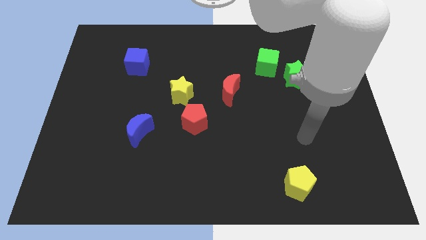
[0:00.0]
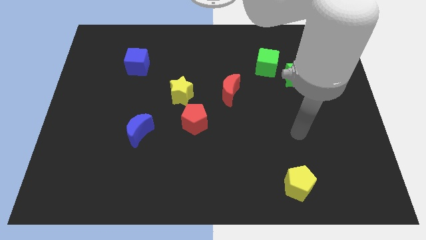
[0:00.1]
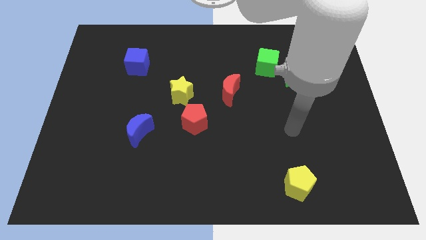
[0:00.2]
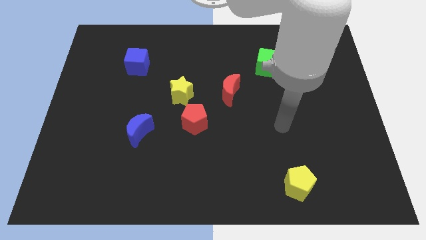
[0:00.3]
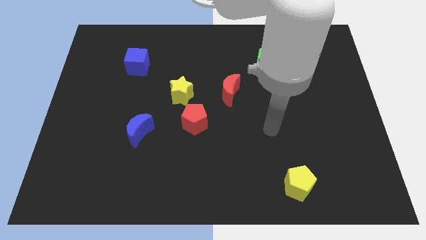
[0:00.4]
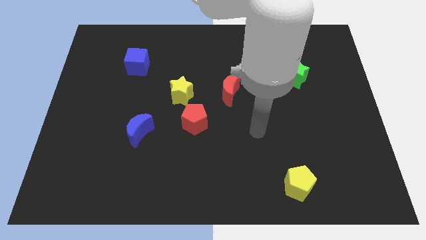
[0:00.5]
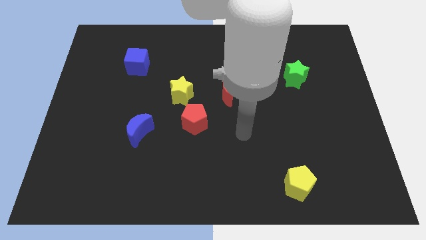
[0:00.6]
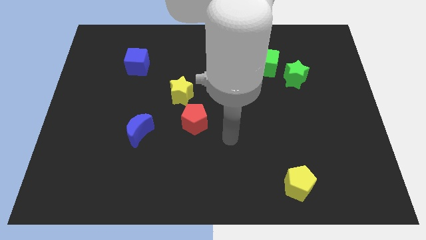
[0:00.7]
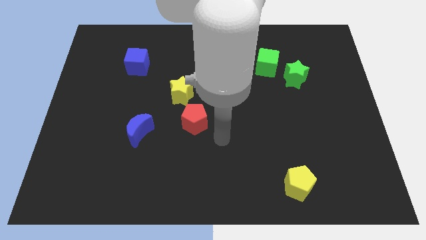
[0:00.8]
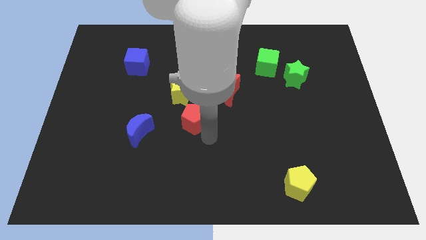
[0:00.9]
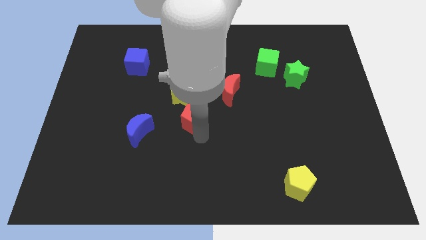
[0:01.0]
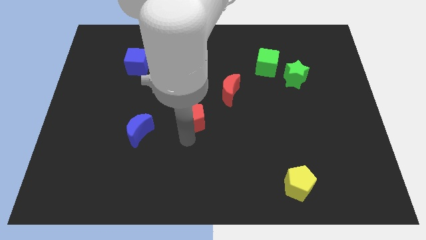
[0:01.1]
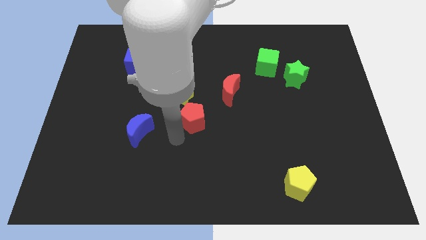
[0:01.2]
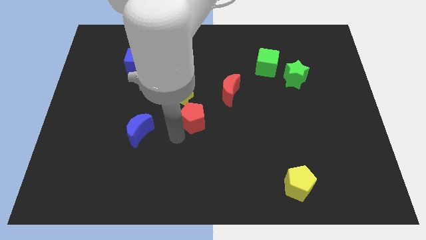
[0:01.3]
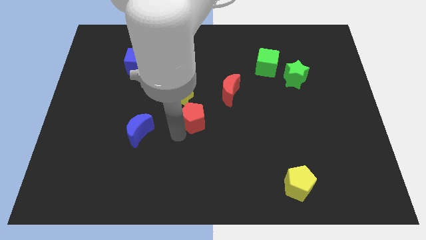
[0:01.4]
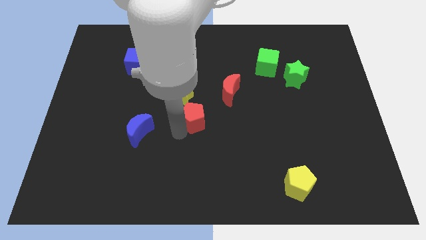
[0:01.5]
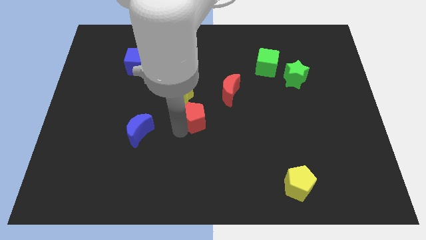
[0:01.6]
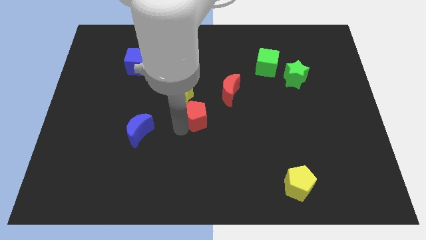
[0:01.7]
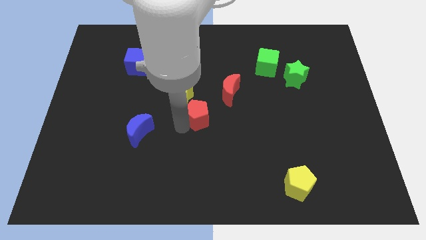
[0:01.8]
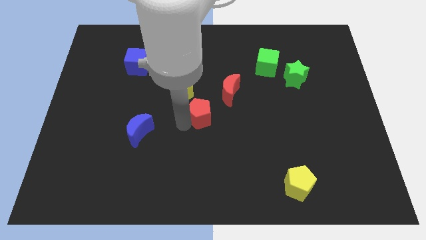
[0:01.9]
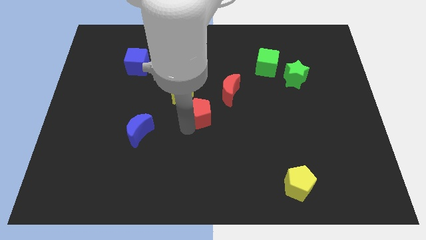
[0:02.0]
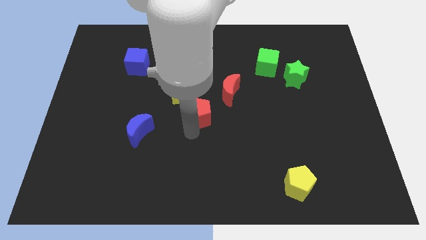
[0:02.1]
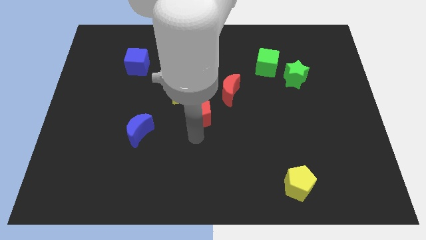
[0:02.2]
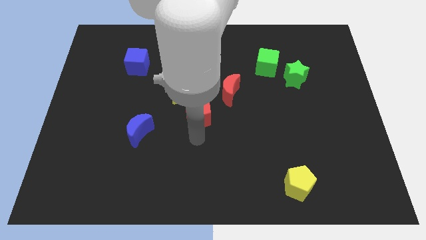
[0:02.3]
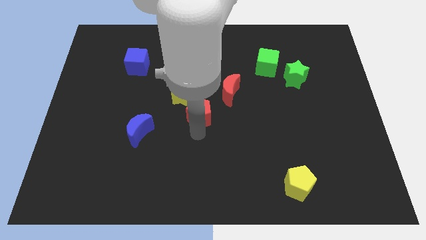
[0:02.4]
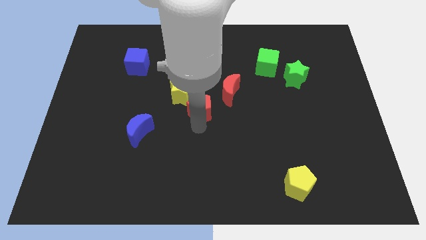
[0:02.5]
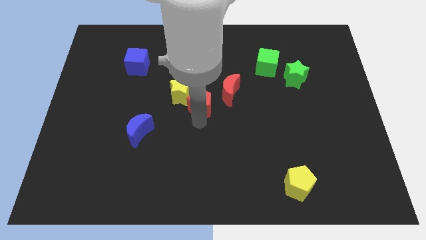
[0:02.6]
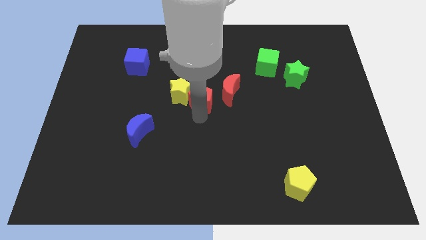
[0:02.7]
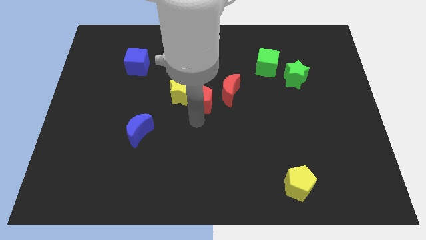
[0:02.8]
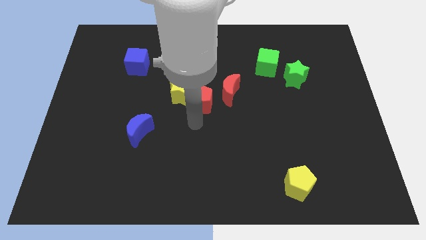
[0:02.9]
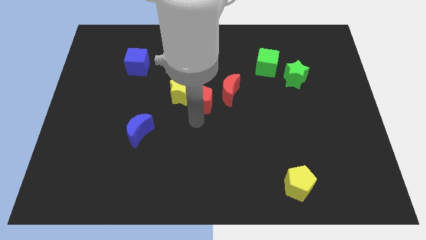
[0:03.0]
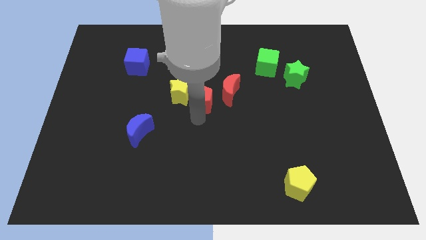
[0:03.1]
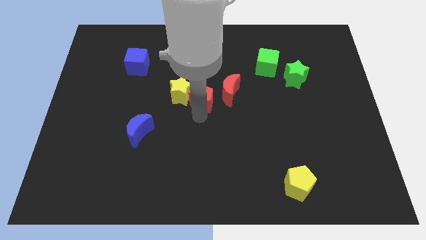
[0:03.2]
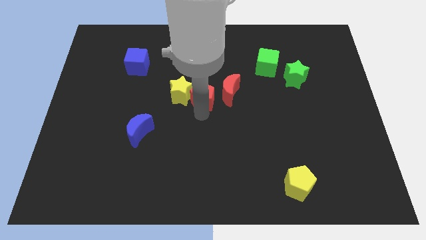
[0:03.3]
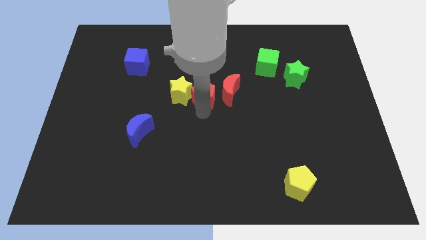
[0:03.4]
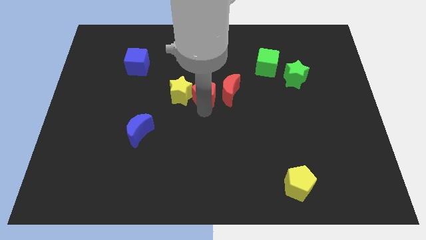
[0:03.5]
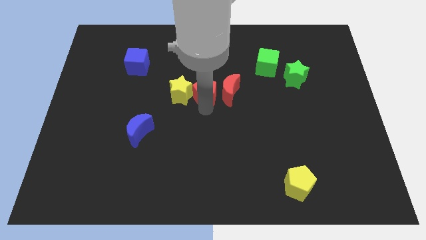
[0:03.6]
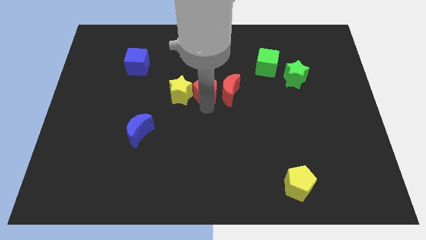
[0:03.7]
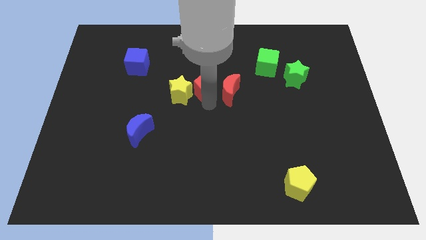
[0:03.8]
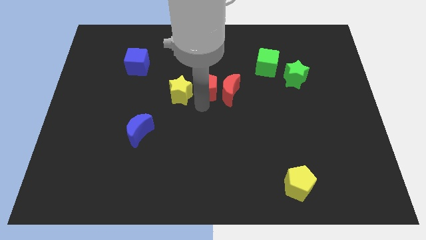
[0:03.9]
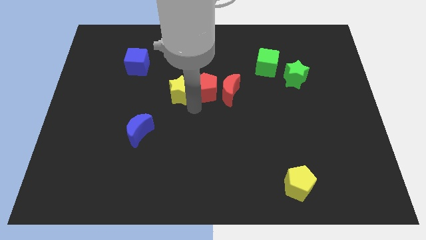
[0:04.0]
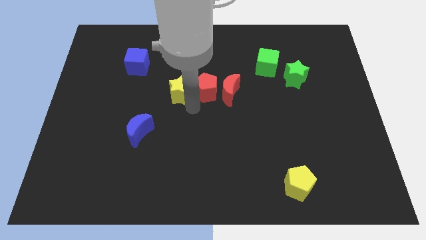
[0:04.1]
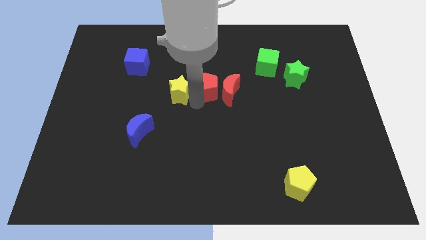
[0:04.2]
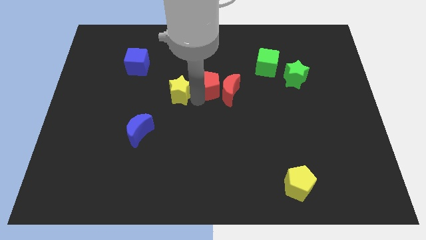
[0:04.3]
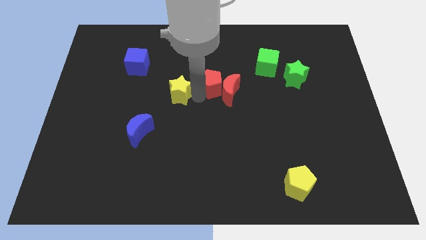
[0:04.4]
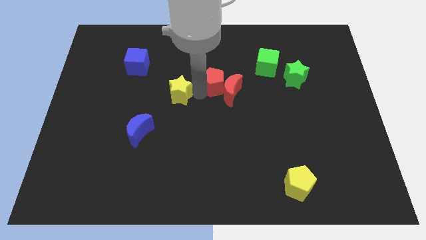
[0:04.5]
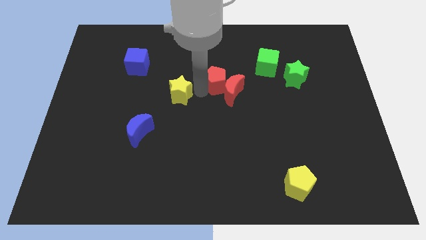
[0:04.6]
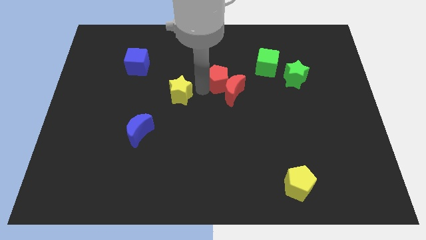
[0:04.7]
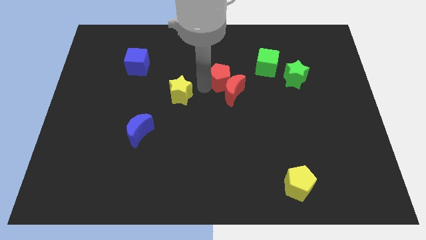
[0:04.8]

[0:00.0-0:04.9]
push the red pentagon to the left side of the green cube

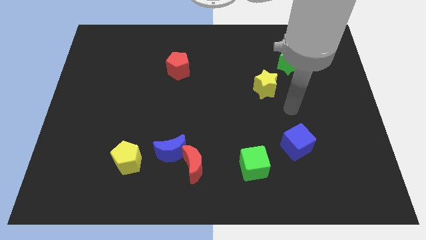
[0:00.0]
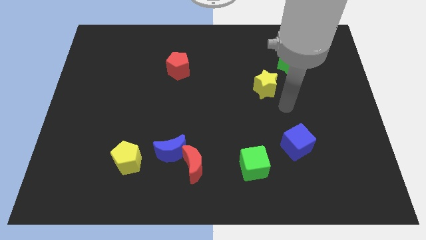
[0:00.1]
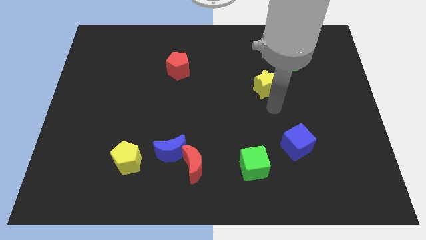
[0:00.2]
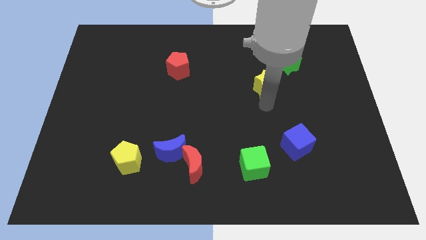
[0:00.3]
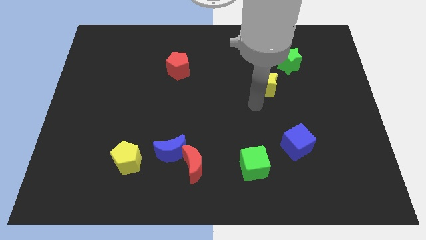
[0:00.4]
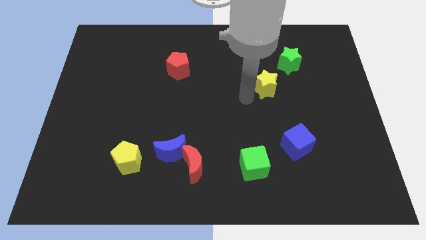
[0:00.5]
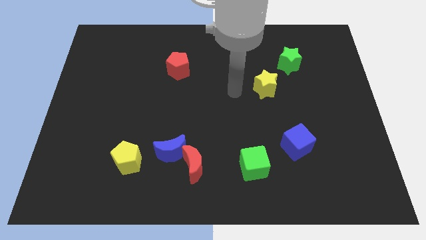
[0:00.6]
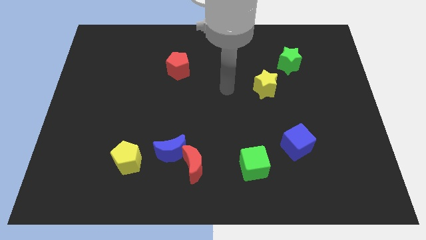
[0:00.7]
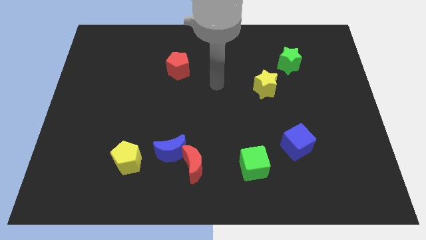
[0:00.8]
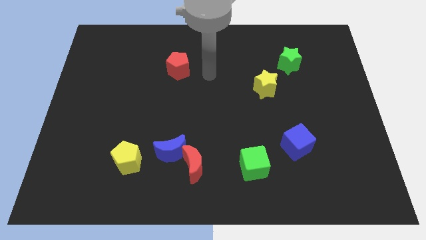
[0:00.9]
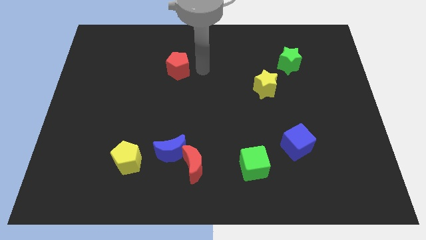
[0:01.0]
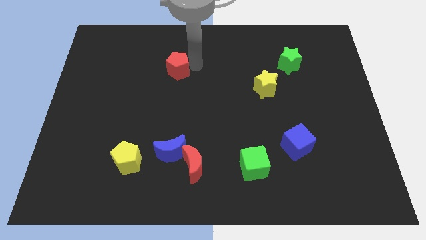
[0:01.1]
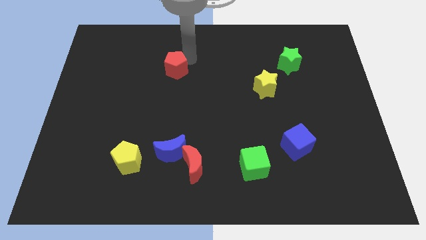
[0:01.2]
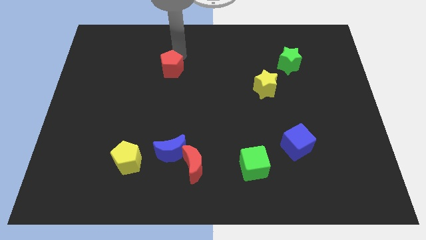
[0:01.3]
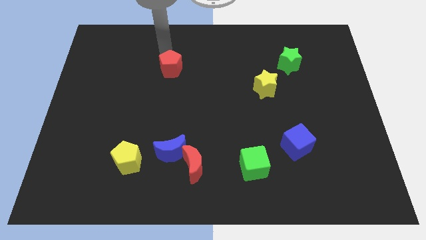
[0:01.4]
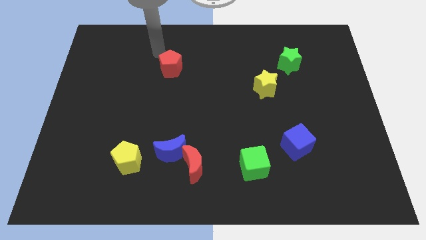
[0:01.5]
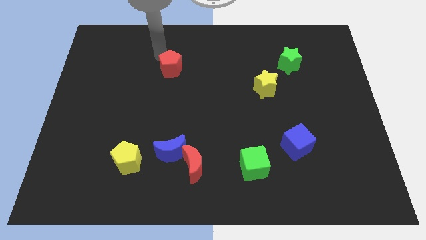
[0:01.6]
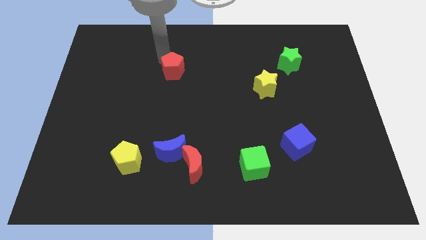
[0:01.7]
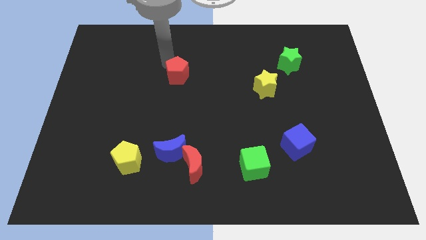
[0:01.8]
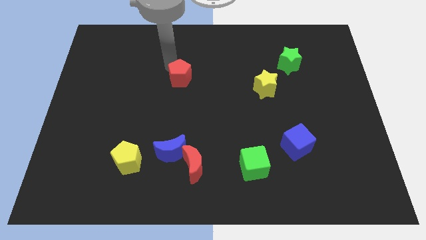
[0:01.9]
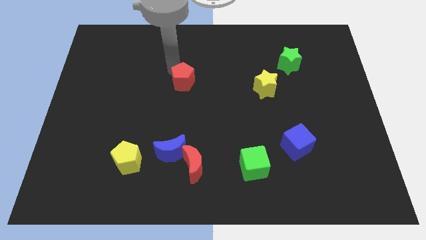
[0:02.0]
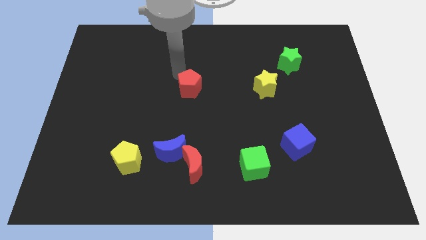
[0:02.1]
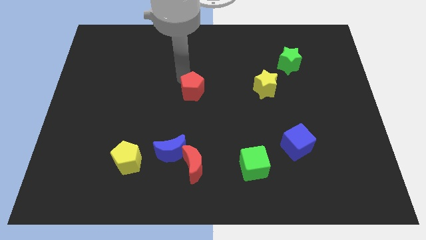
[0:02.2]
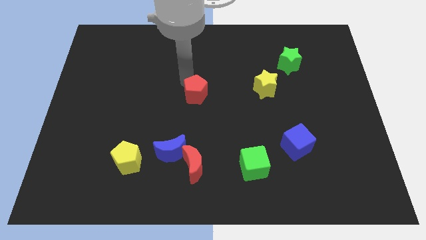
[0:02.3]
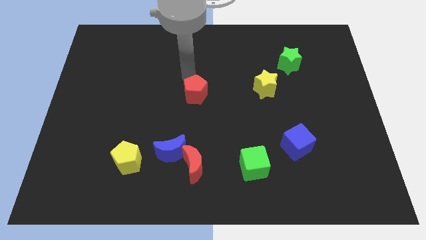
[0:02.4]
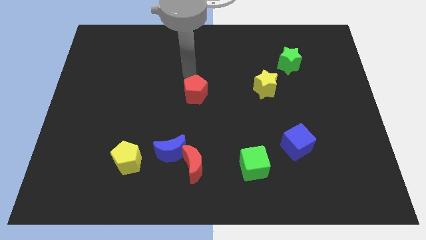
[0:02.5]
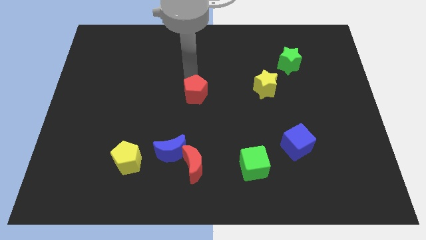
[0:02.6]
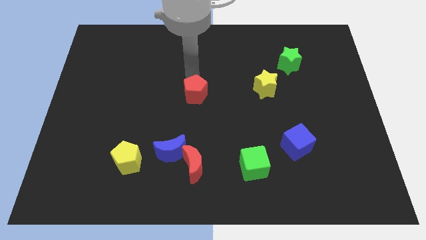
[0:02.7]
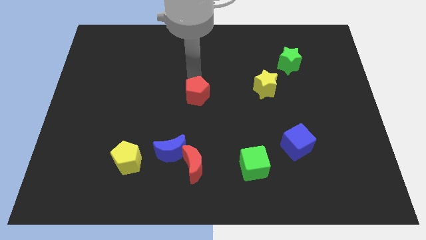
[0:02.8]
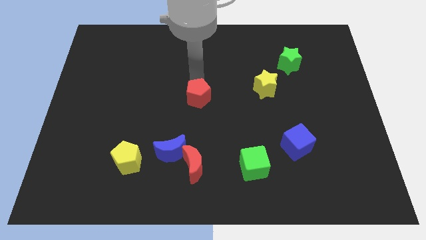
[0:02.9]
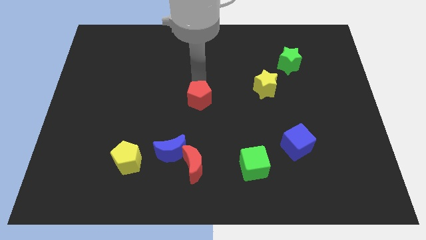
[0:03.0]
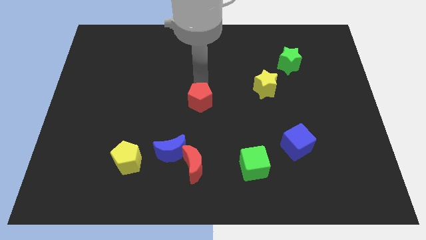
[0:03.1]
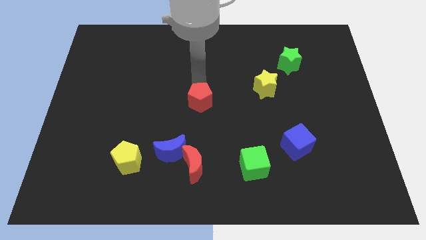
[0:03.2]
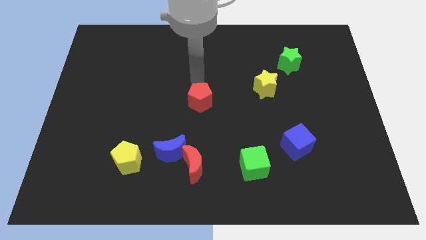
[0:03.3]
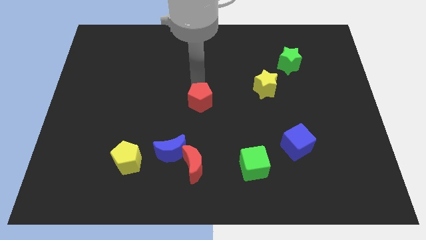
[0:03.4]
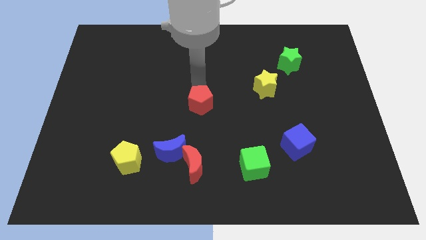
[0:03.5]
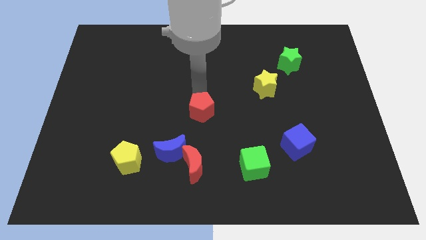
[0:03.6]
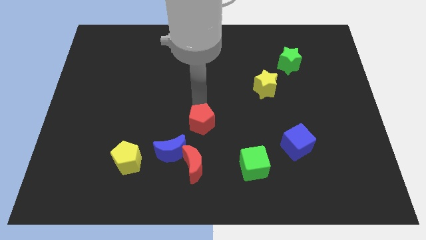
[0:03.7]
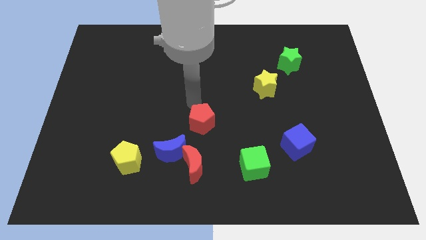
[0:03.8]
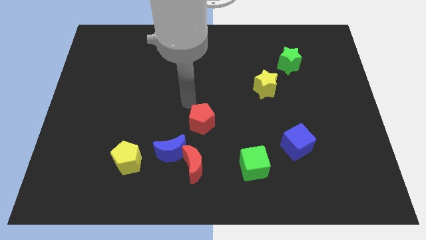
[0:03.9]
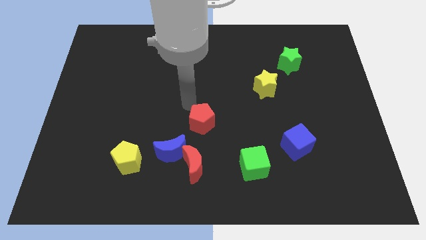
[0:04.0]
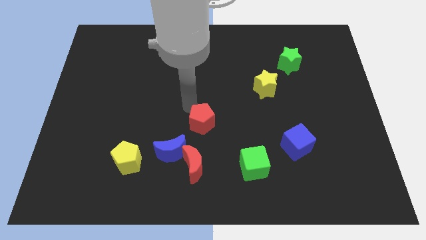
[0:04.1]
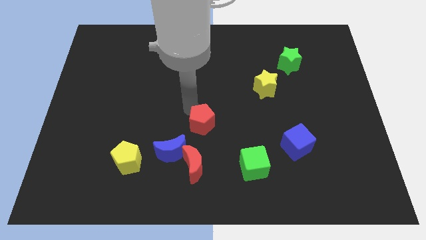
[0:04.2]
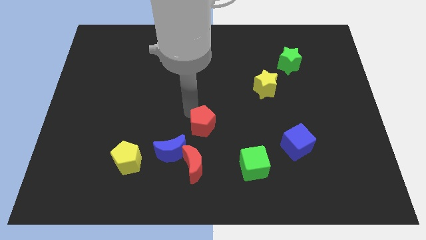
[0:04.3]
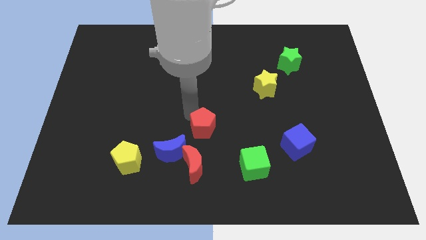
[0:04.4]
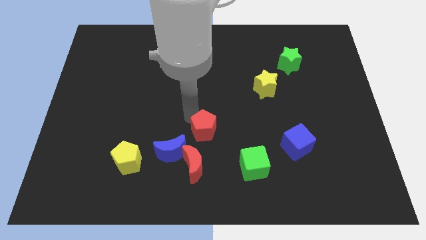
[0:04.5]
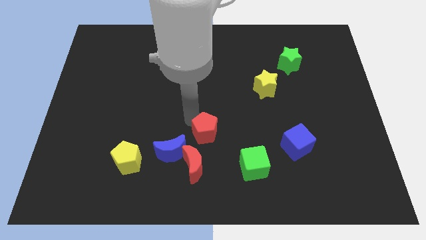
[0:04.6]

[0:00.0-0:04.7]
push the red pentagon to the top right of the red moon
